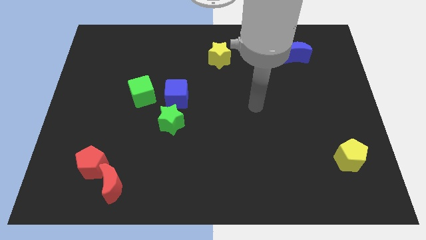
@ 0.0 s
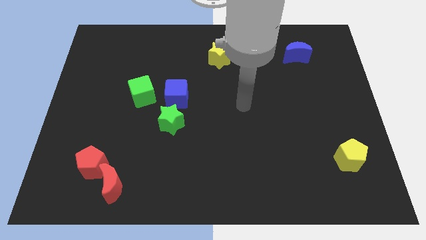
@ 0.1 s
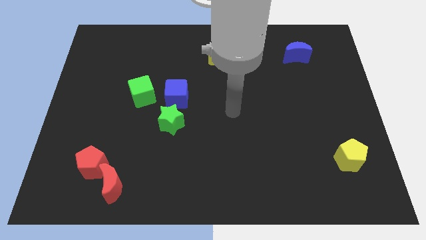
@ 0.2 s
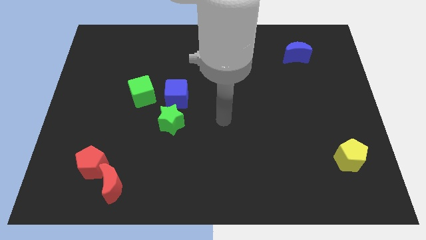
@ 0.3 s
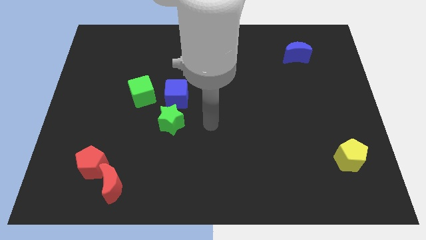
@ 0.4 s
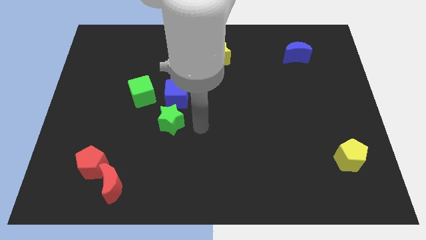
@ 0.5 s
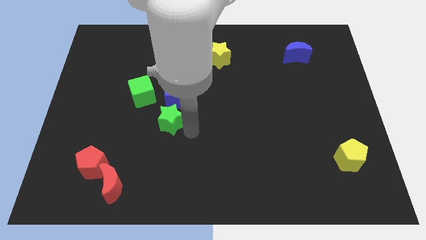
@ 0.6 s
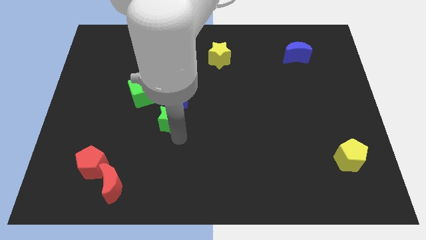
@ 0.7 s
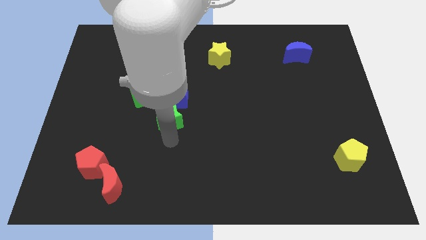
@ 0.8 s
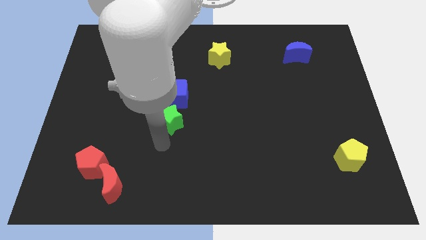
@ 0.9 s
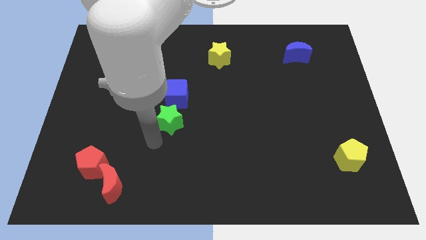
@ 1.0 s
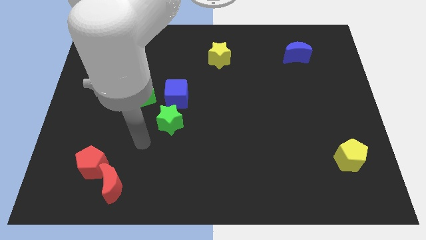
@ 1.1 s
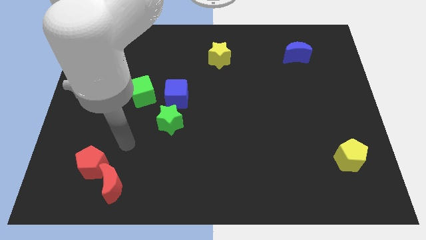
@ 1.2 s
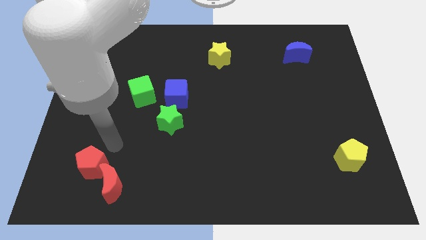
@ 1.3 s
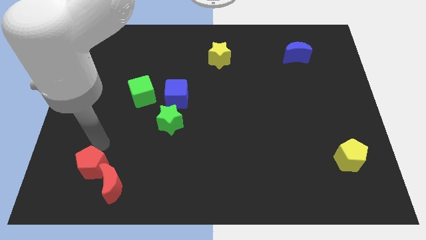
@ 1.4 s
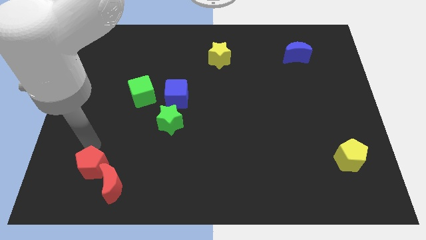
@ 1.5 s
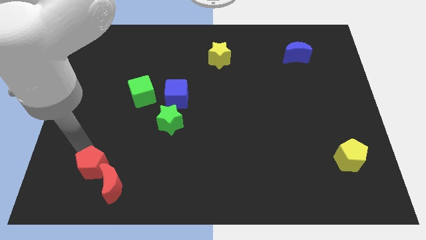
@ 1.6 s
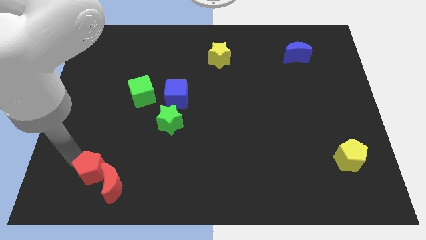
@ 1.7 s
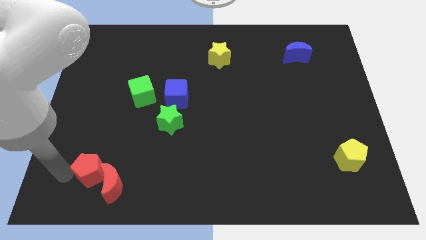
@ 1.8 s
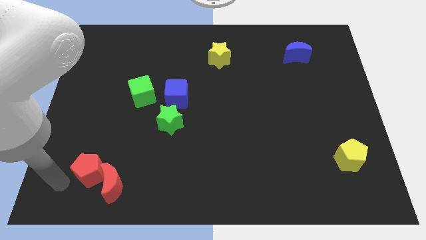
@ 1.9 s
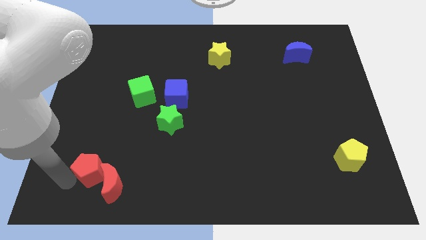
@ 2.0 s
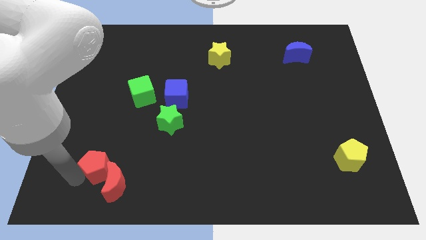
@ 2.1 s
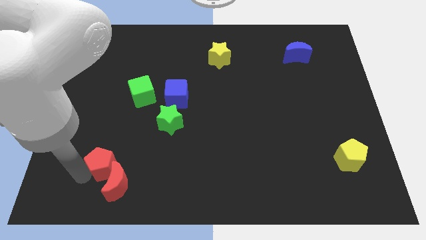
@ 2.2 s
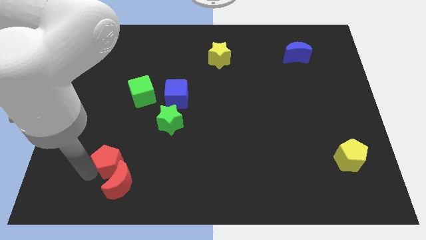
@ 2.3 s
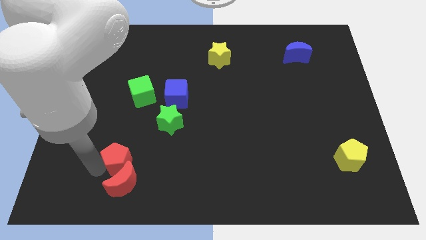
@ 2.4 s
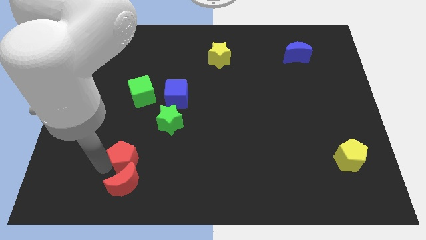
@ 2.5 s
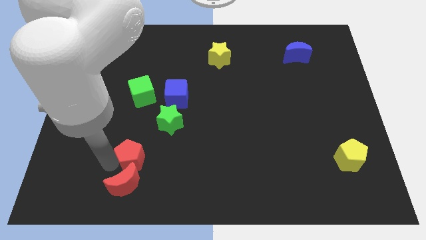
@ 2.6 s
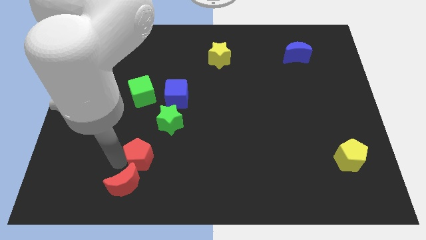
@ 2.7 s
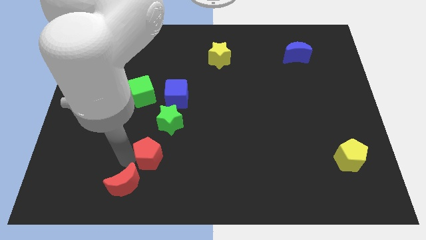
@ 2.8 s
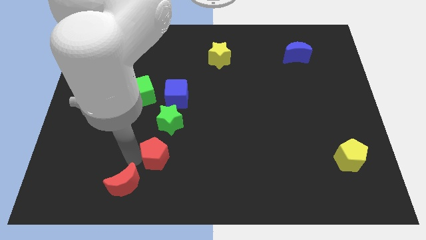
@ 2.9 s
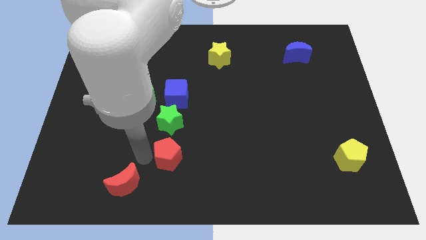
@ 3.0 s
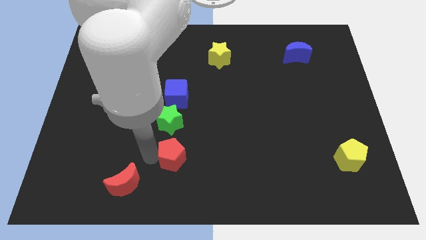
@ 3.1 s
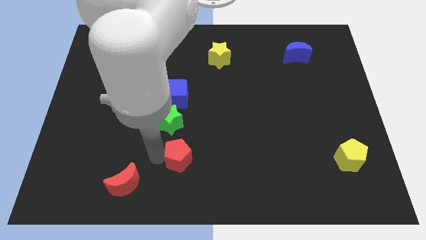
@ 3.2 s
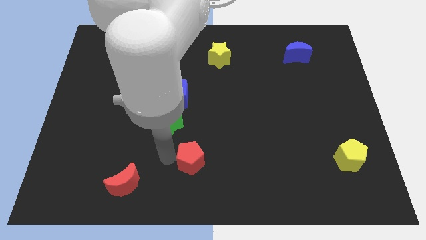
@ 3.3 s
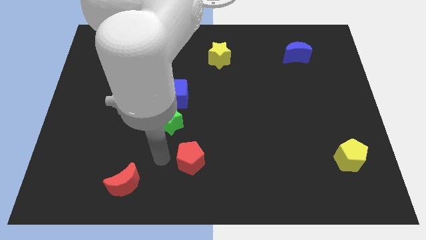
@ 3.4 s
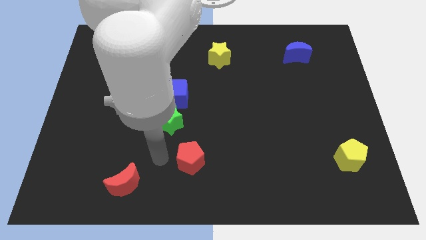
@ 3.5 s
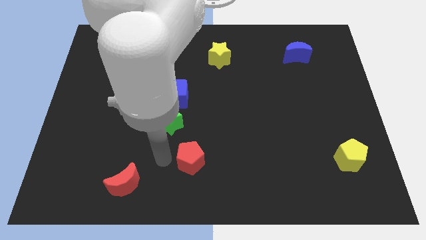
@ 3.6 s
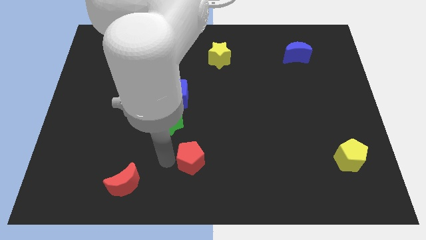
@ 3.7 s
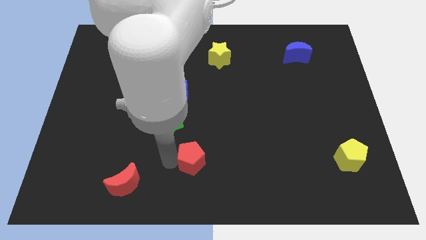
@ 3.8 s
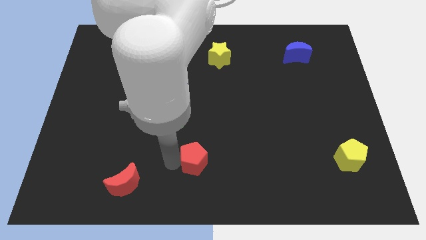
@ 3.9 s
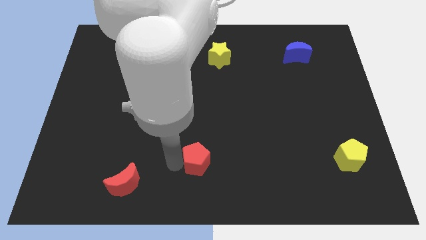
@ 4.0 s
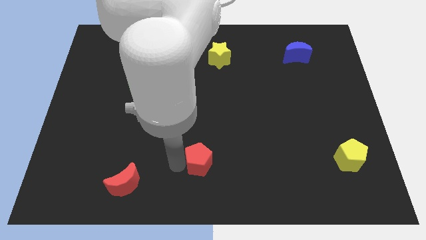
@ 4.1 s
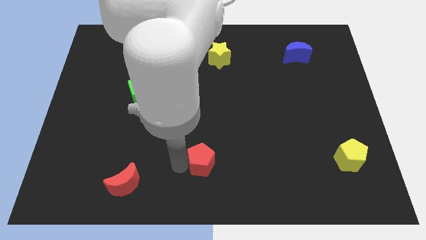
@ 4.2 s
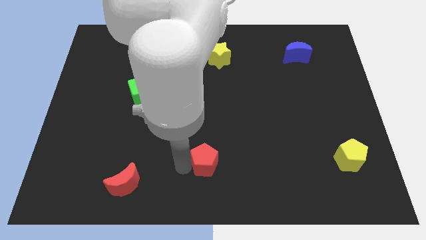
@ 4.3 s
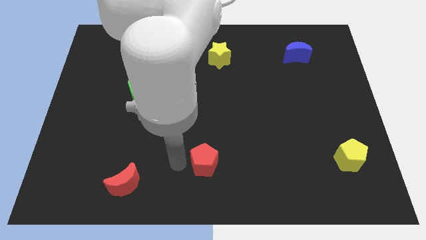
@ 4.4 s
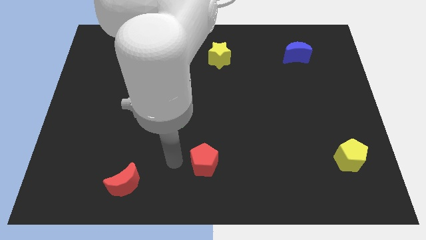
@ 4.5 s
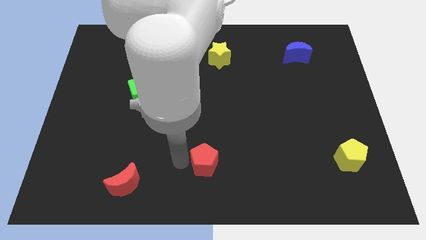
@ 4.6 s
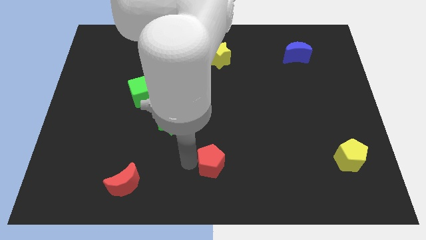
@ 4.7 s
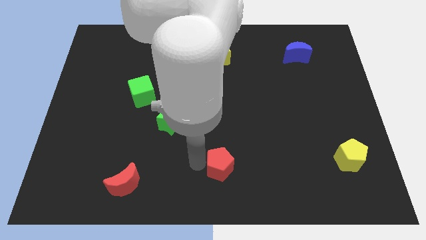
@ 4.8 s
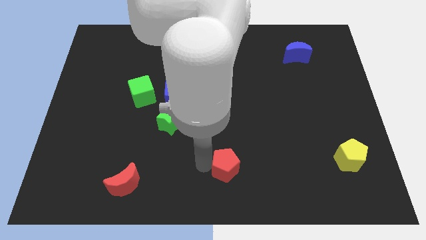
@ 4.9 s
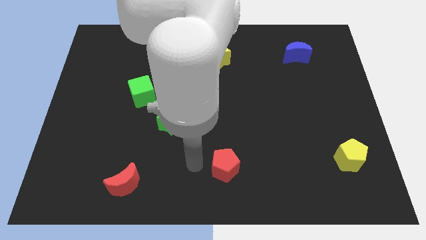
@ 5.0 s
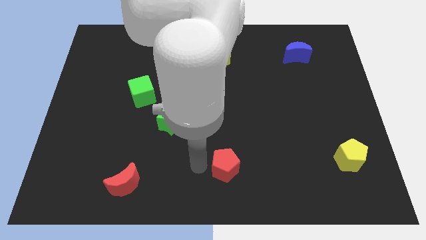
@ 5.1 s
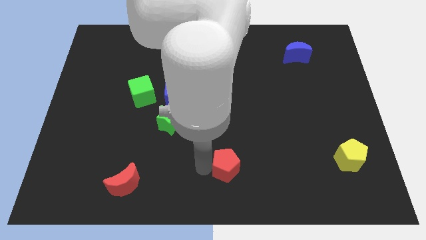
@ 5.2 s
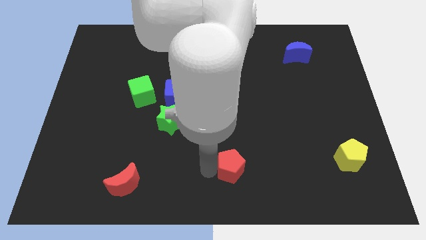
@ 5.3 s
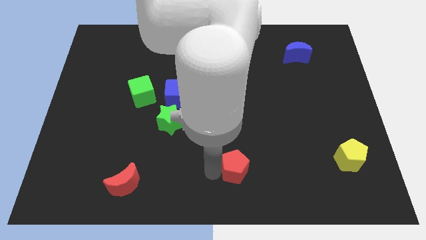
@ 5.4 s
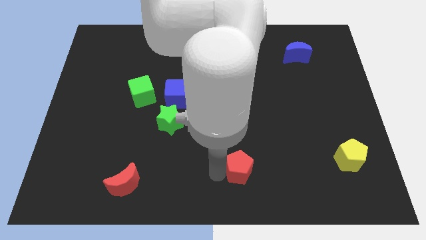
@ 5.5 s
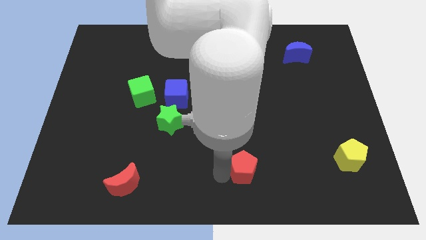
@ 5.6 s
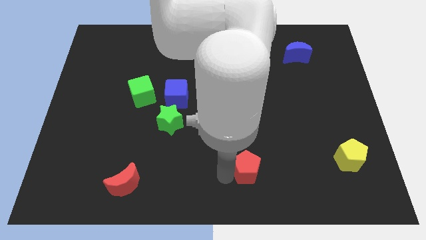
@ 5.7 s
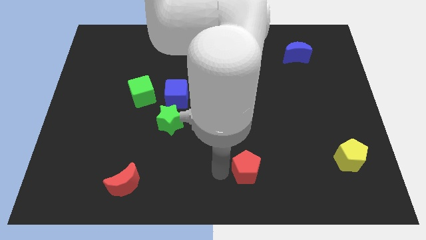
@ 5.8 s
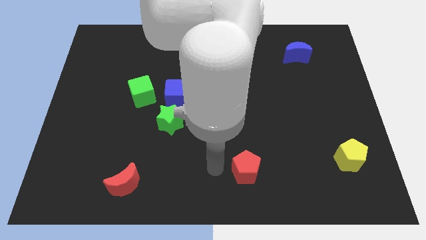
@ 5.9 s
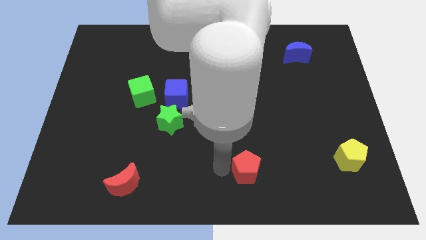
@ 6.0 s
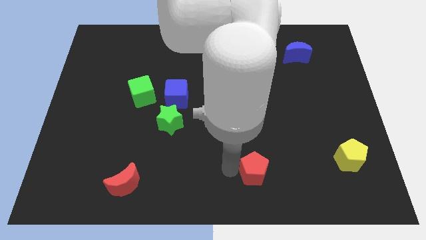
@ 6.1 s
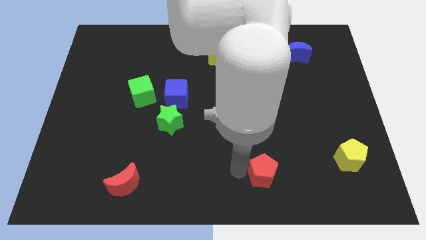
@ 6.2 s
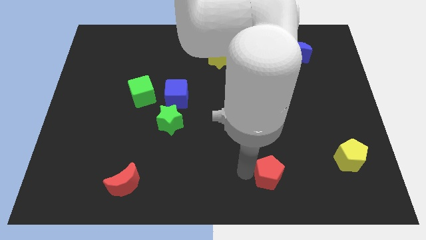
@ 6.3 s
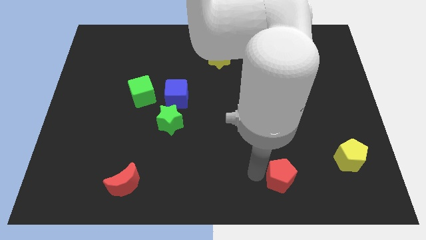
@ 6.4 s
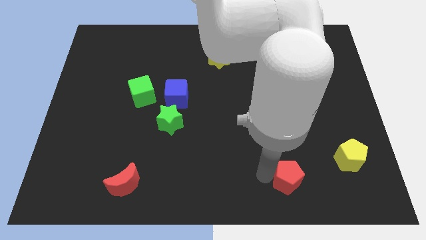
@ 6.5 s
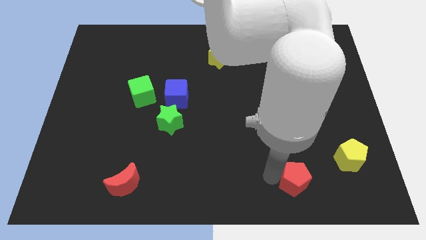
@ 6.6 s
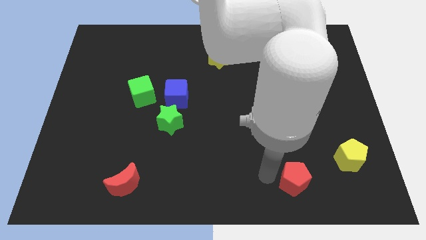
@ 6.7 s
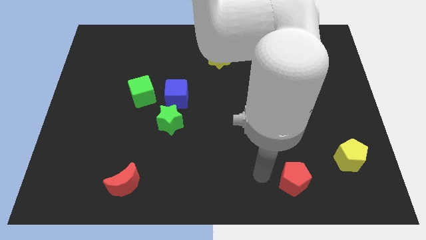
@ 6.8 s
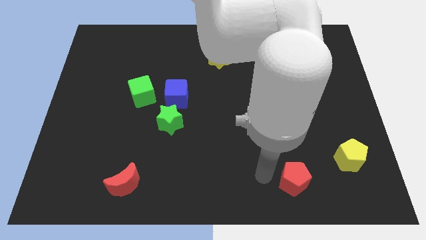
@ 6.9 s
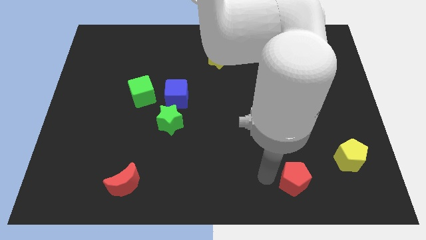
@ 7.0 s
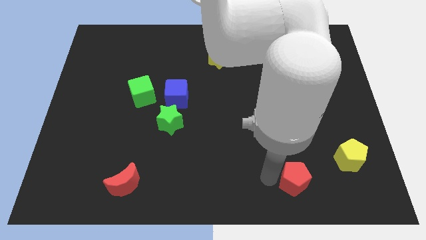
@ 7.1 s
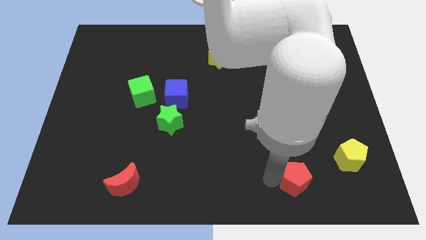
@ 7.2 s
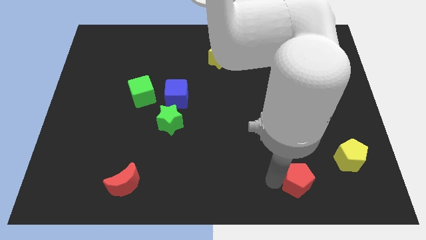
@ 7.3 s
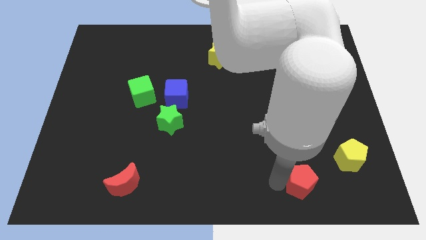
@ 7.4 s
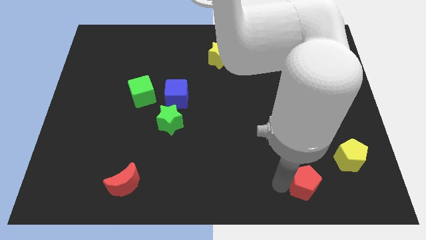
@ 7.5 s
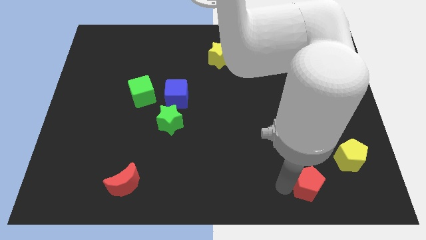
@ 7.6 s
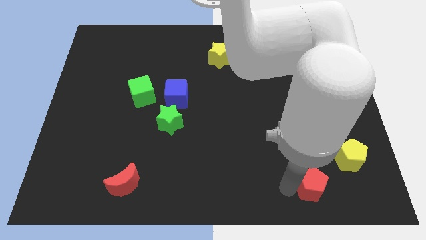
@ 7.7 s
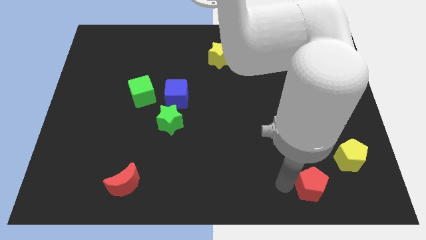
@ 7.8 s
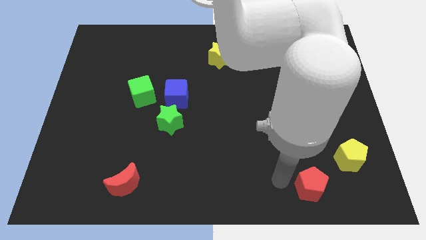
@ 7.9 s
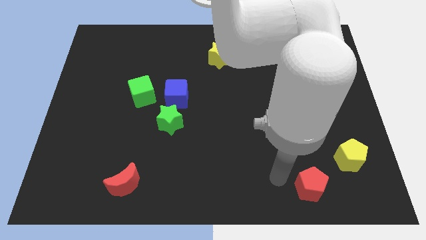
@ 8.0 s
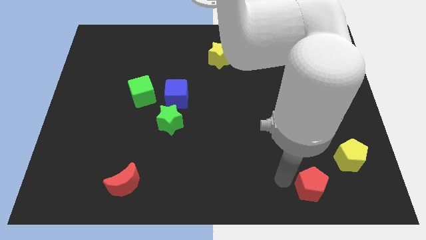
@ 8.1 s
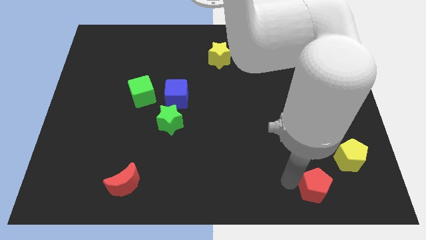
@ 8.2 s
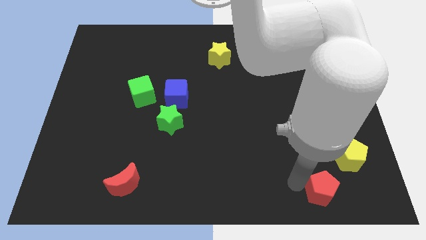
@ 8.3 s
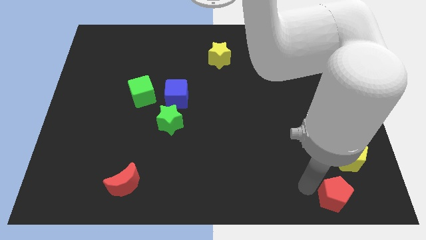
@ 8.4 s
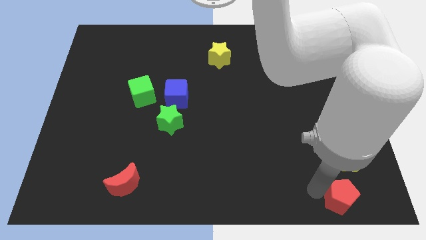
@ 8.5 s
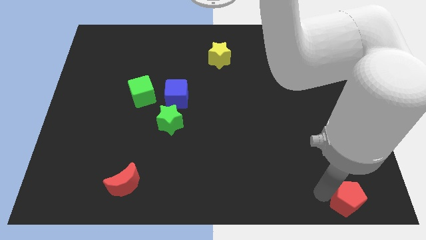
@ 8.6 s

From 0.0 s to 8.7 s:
move the red pentagon to the bottom right corner
